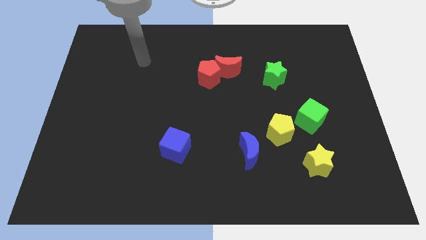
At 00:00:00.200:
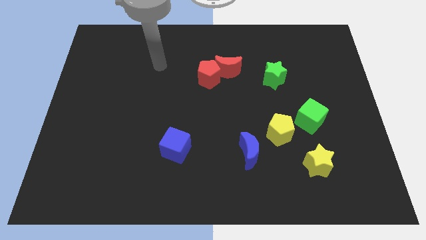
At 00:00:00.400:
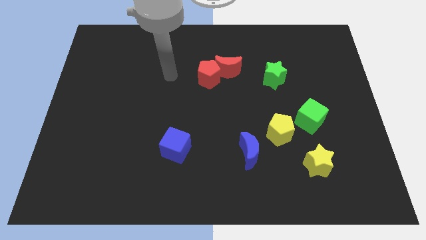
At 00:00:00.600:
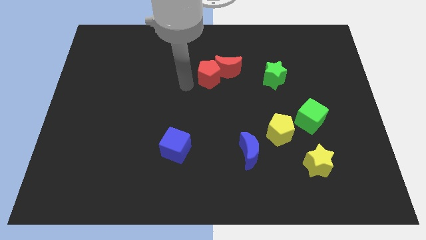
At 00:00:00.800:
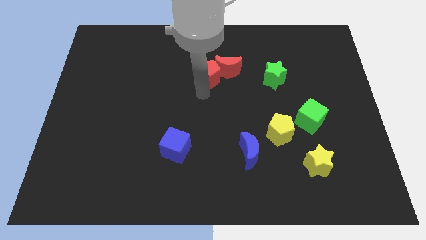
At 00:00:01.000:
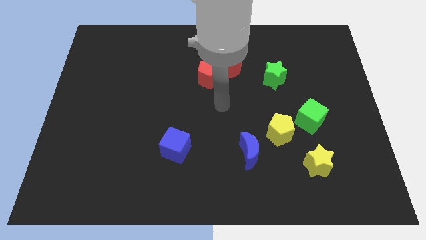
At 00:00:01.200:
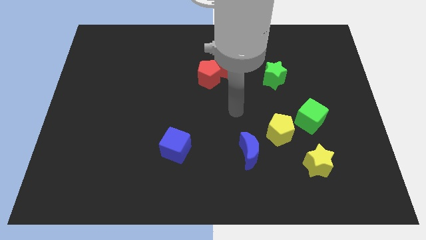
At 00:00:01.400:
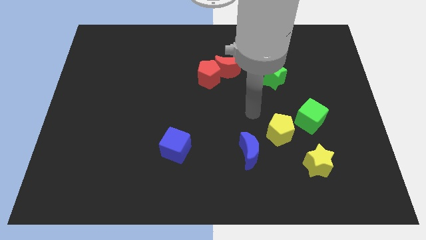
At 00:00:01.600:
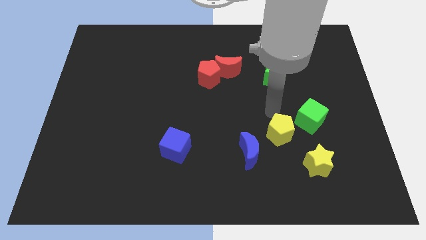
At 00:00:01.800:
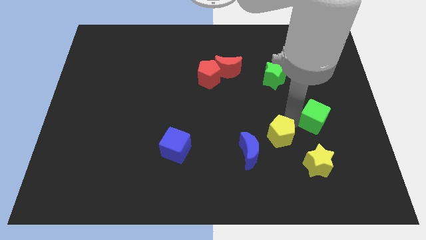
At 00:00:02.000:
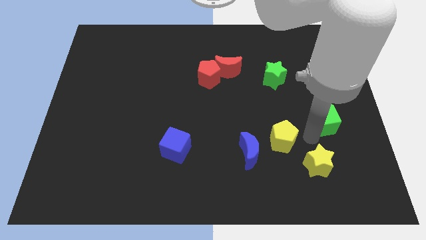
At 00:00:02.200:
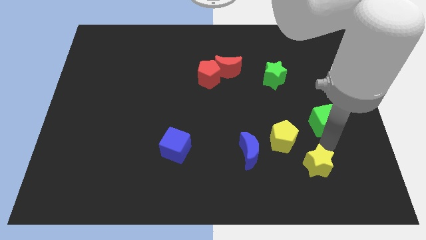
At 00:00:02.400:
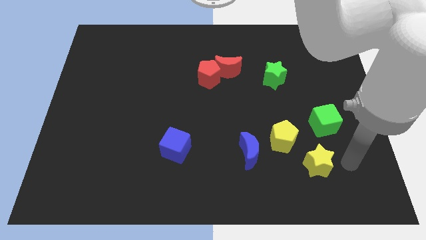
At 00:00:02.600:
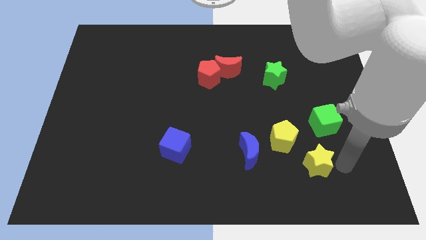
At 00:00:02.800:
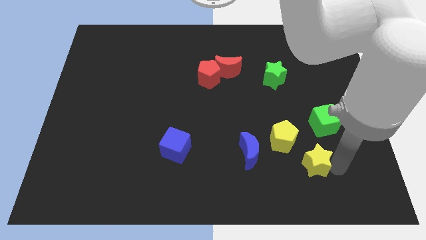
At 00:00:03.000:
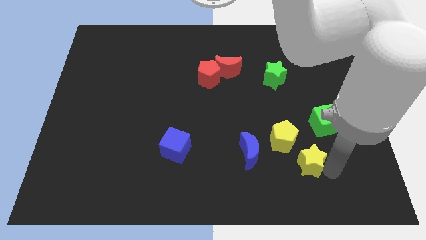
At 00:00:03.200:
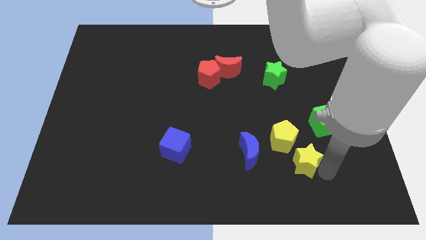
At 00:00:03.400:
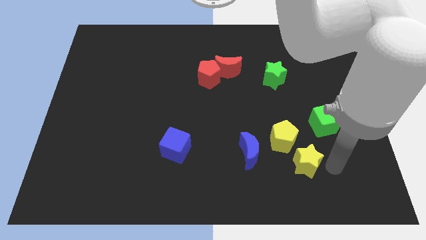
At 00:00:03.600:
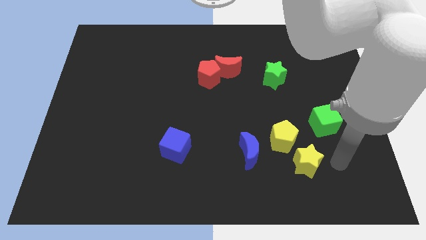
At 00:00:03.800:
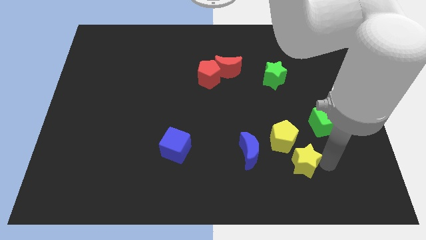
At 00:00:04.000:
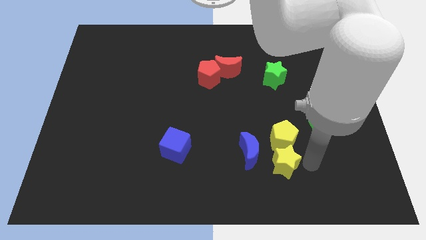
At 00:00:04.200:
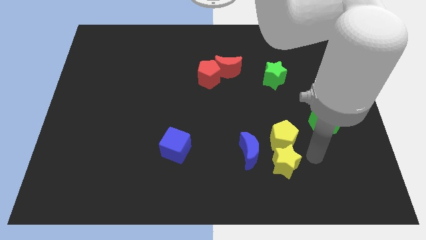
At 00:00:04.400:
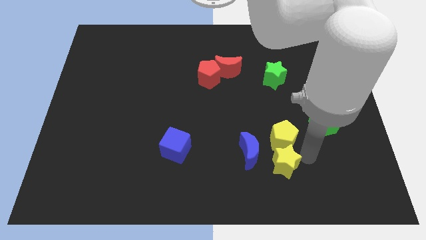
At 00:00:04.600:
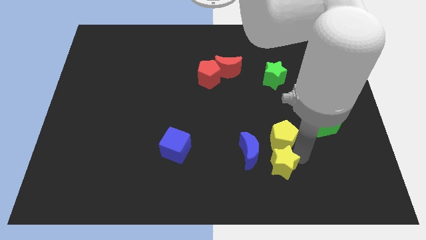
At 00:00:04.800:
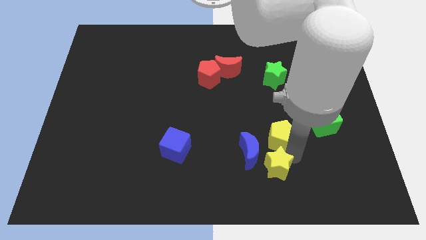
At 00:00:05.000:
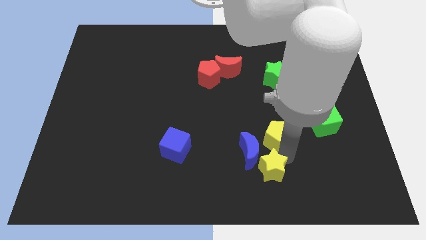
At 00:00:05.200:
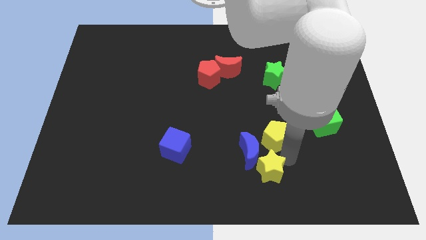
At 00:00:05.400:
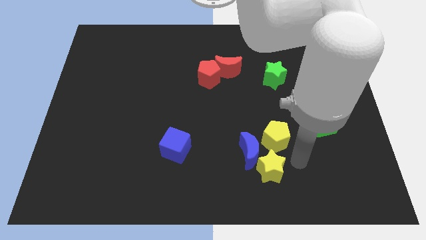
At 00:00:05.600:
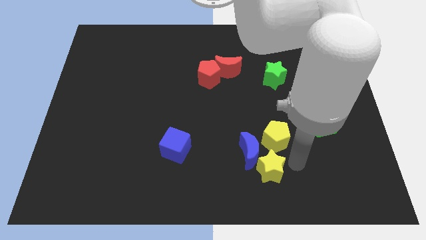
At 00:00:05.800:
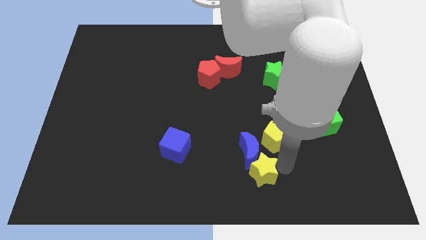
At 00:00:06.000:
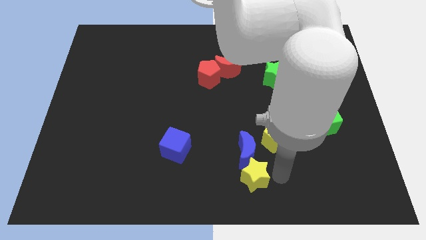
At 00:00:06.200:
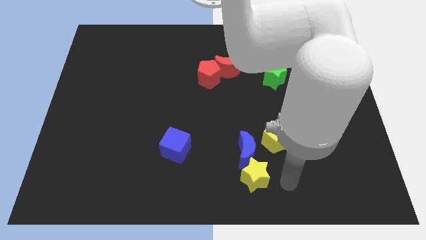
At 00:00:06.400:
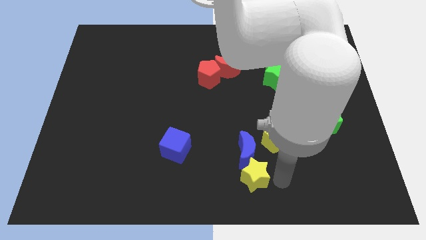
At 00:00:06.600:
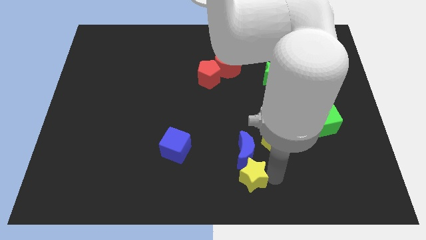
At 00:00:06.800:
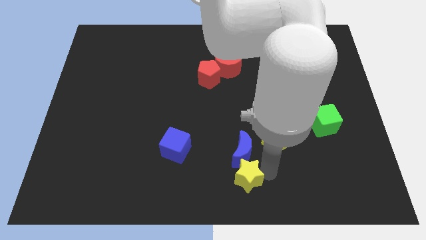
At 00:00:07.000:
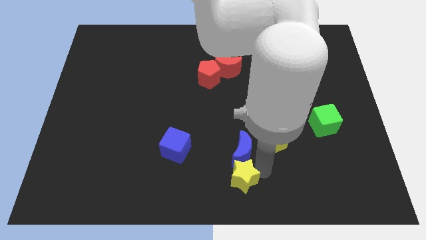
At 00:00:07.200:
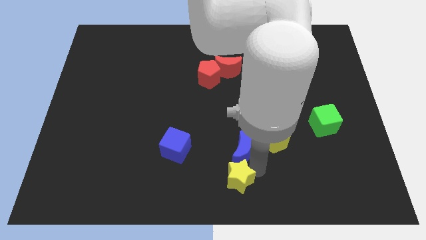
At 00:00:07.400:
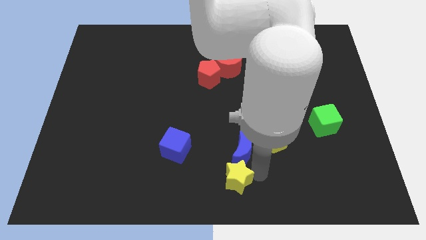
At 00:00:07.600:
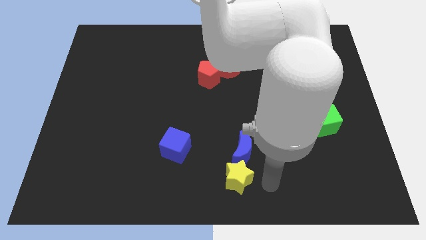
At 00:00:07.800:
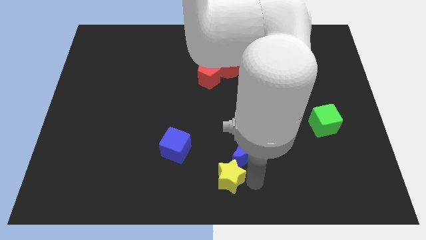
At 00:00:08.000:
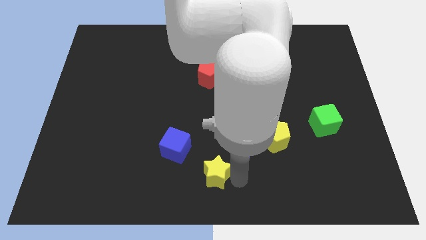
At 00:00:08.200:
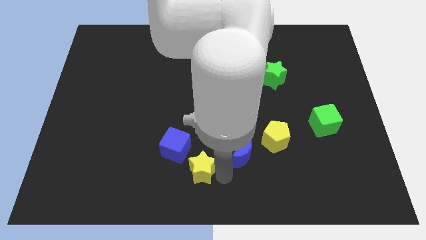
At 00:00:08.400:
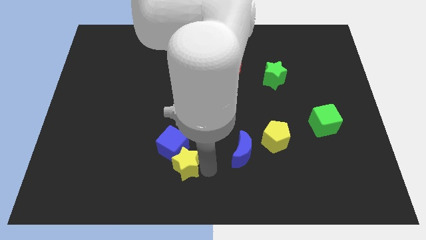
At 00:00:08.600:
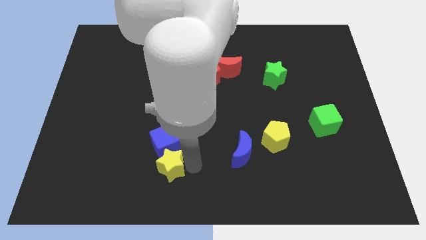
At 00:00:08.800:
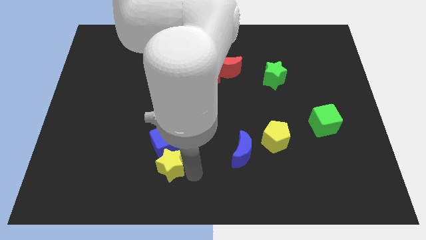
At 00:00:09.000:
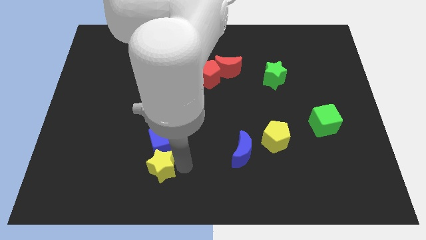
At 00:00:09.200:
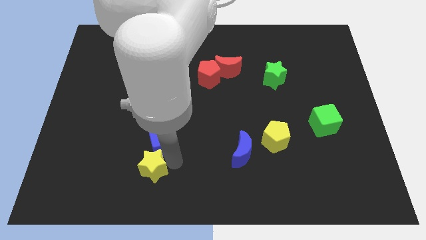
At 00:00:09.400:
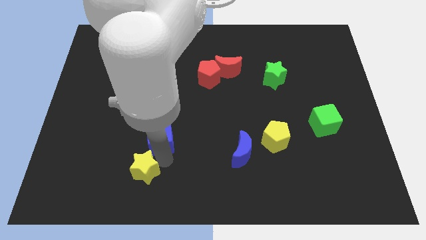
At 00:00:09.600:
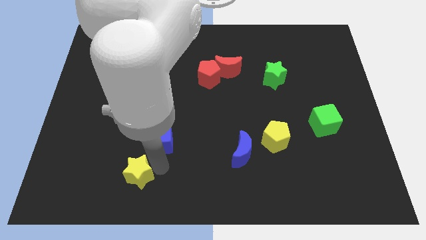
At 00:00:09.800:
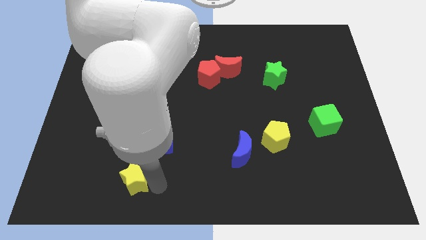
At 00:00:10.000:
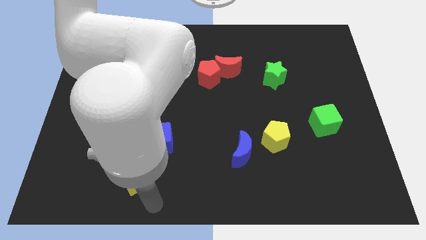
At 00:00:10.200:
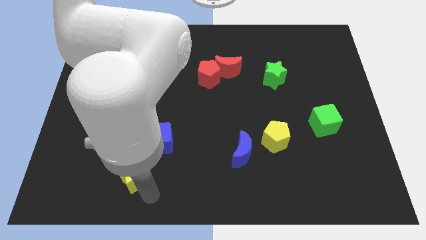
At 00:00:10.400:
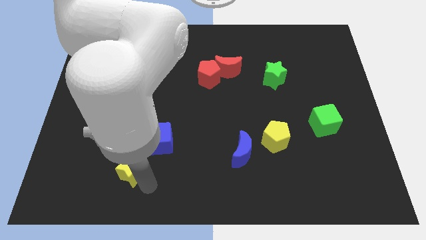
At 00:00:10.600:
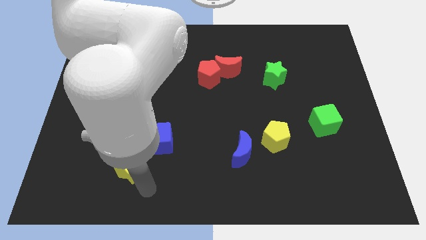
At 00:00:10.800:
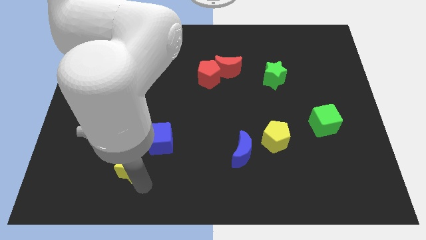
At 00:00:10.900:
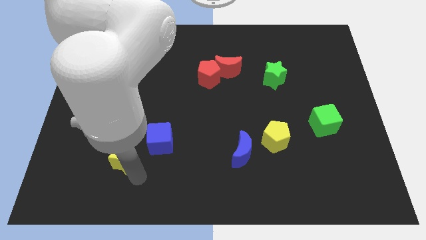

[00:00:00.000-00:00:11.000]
move the yellow star left of the blue cube
